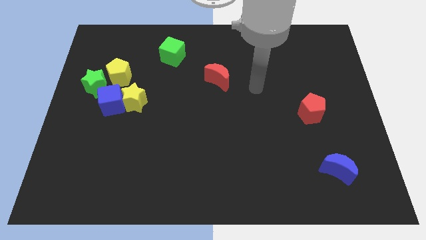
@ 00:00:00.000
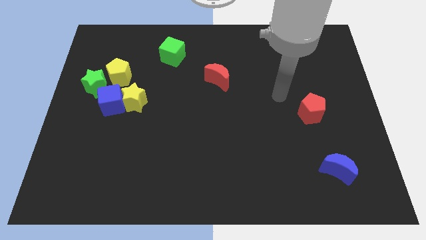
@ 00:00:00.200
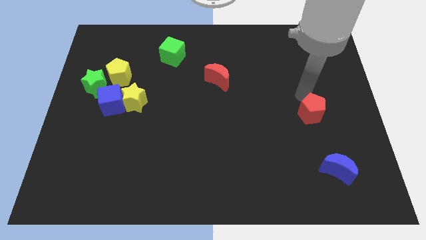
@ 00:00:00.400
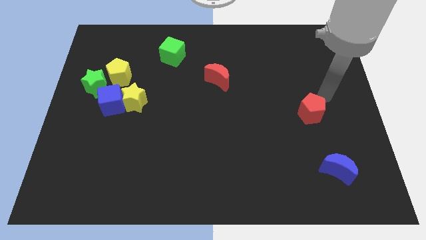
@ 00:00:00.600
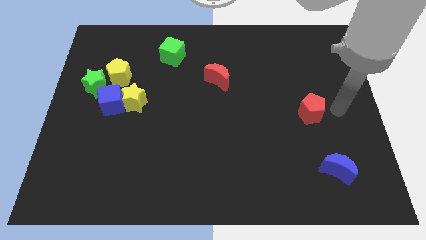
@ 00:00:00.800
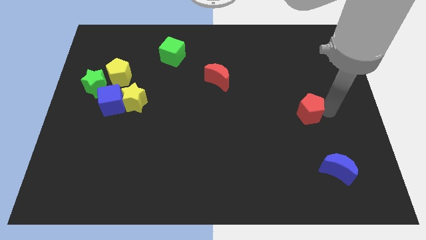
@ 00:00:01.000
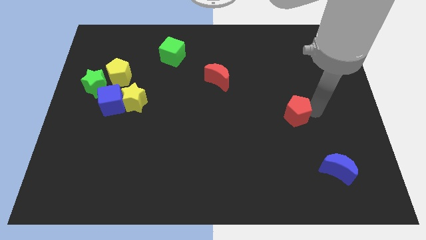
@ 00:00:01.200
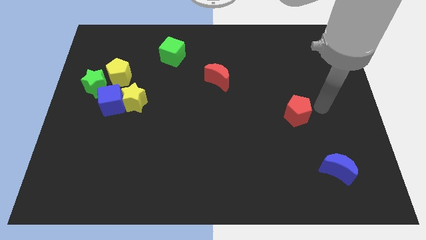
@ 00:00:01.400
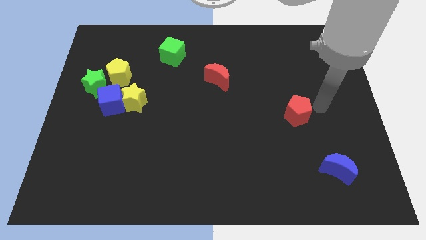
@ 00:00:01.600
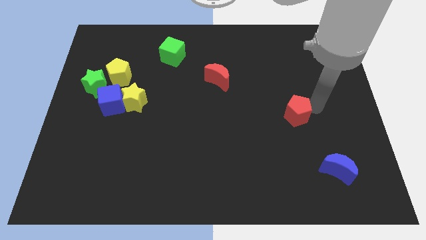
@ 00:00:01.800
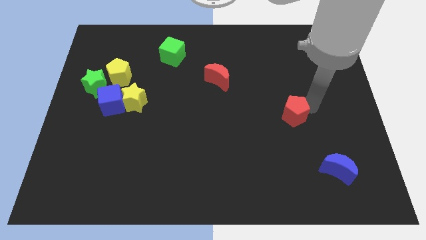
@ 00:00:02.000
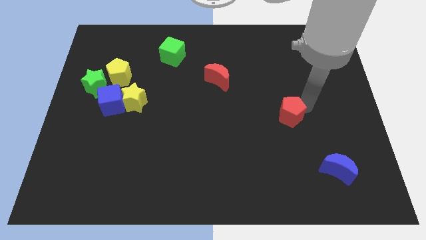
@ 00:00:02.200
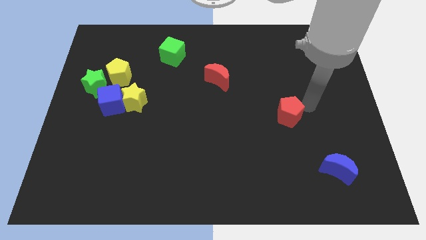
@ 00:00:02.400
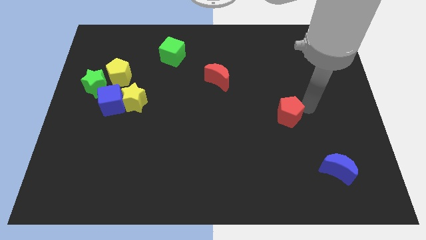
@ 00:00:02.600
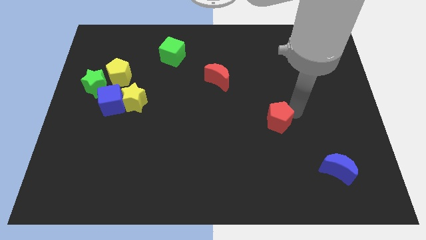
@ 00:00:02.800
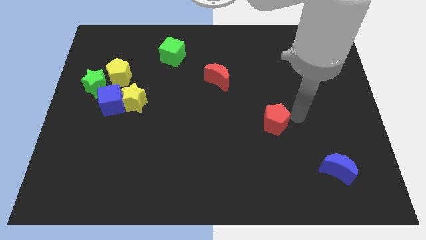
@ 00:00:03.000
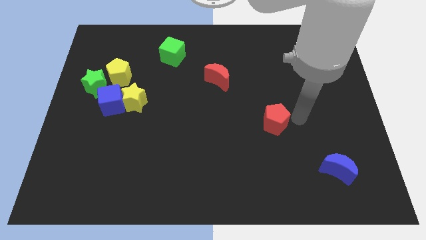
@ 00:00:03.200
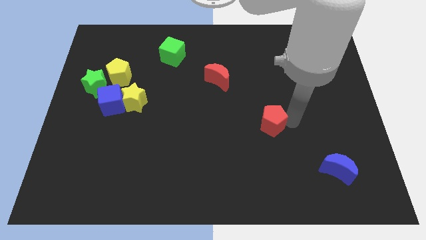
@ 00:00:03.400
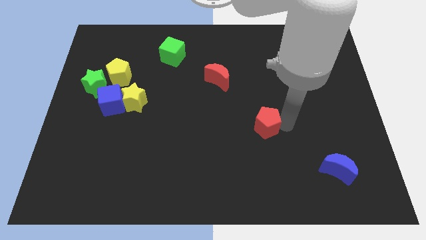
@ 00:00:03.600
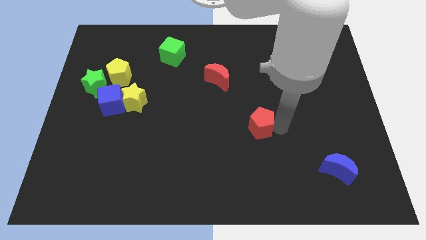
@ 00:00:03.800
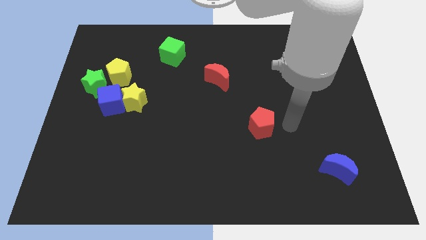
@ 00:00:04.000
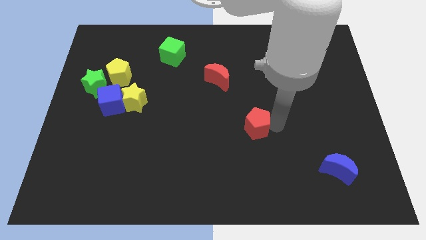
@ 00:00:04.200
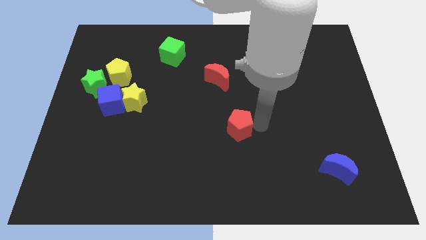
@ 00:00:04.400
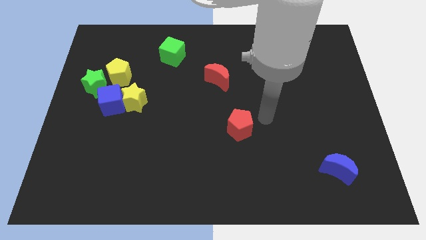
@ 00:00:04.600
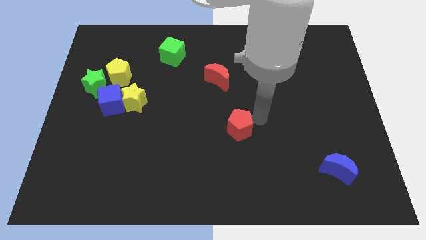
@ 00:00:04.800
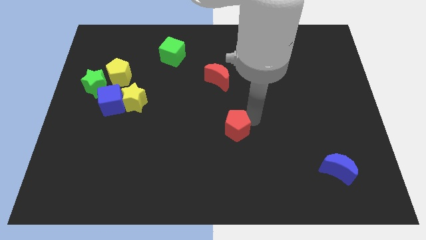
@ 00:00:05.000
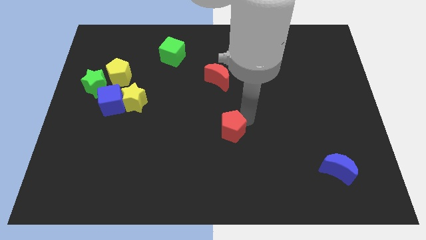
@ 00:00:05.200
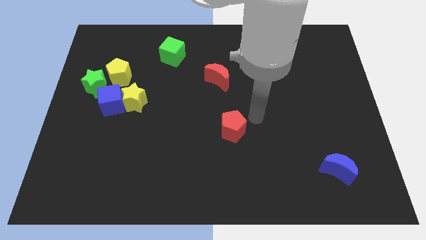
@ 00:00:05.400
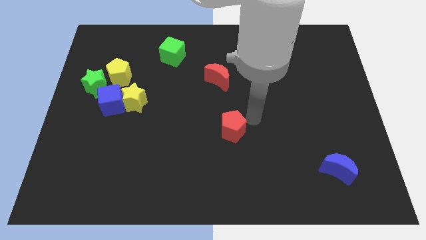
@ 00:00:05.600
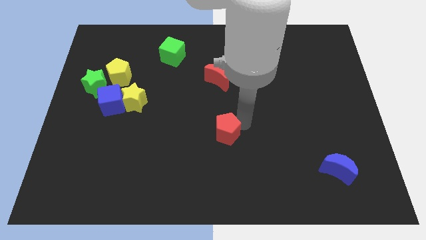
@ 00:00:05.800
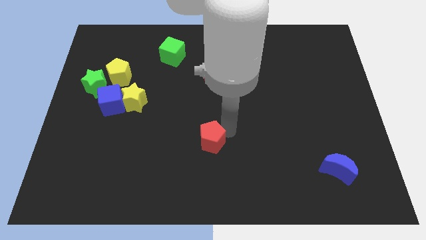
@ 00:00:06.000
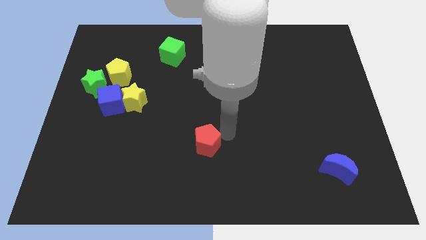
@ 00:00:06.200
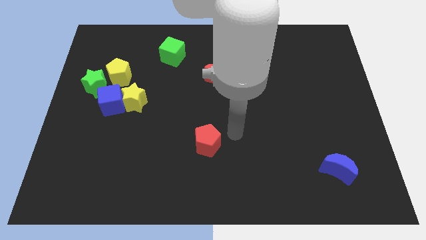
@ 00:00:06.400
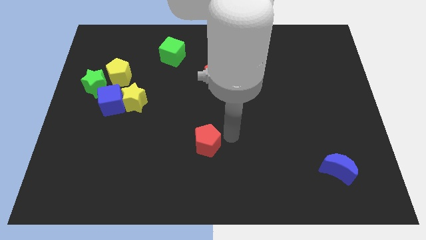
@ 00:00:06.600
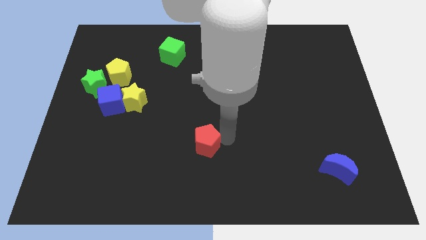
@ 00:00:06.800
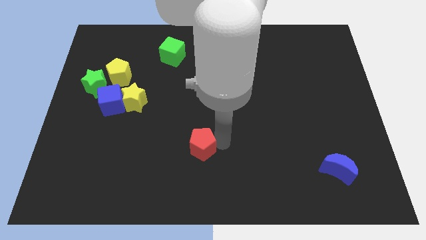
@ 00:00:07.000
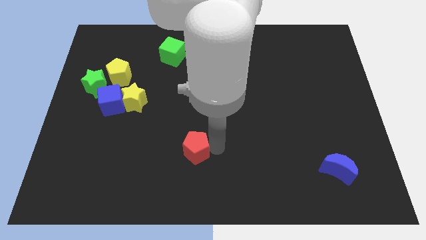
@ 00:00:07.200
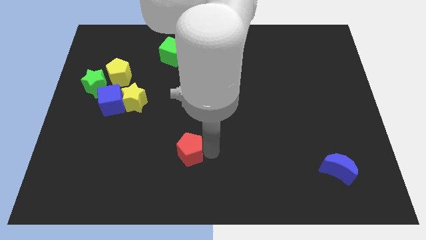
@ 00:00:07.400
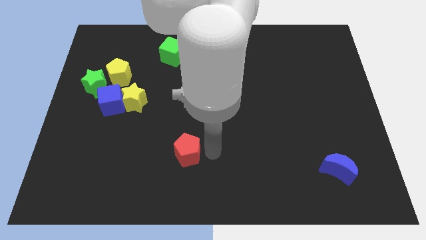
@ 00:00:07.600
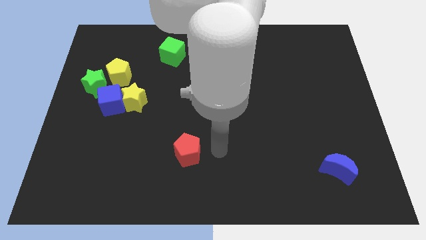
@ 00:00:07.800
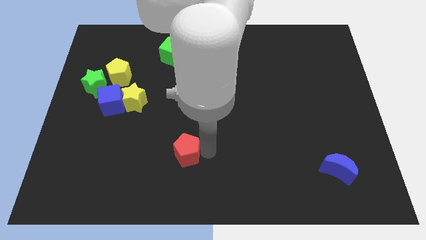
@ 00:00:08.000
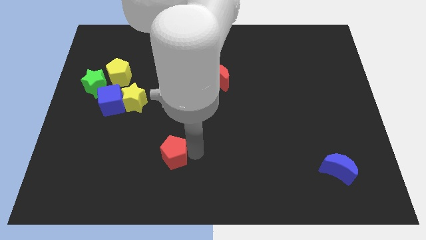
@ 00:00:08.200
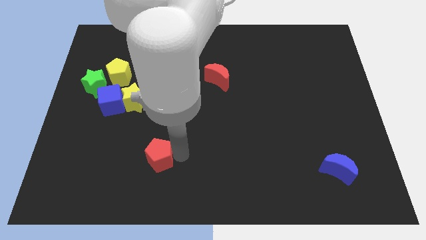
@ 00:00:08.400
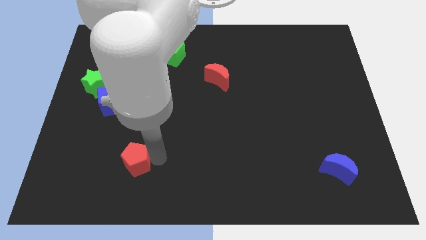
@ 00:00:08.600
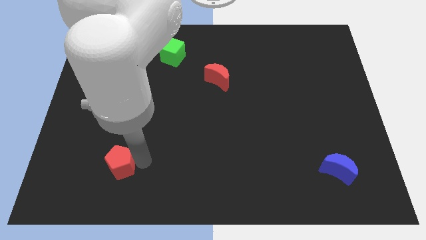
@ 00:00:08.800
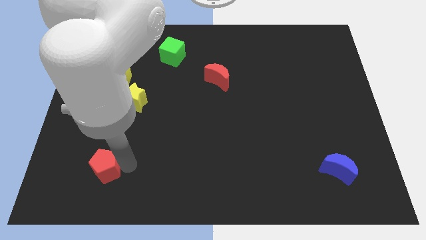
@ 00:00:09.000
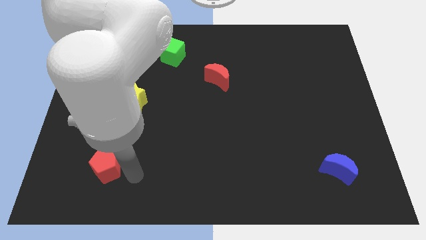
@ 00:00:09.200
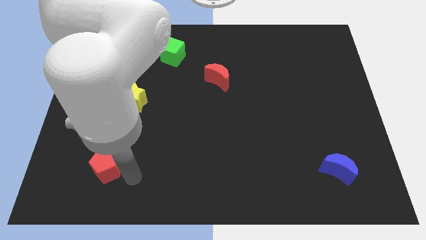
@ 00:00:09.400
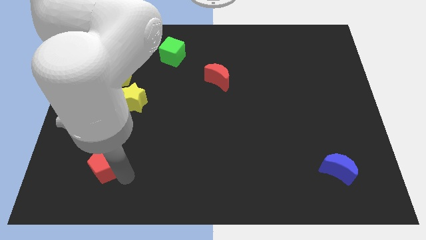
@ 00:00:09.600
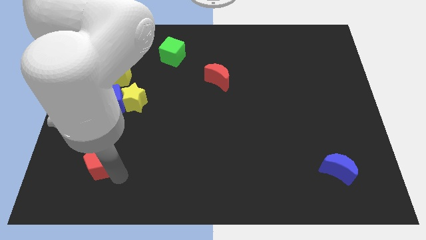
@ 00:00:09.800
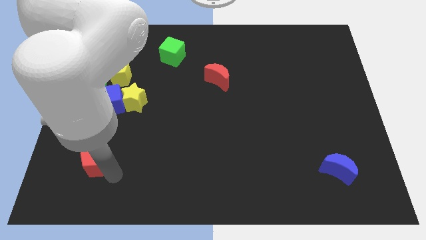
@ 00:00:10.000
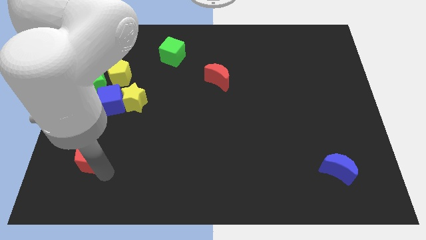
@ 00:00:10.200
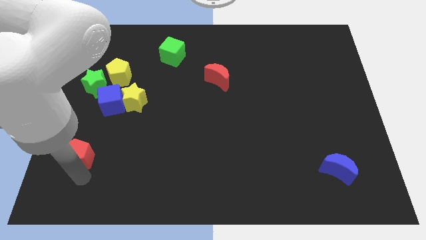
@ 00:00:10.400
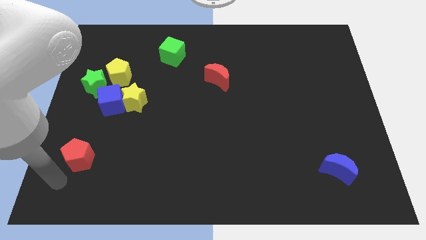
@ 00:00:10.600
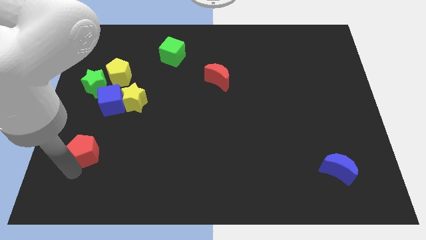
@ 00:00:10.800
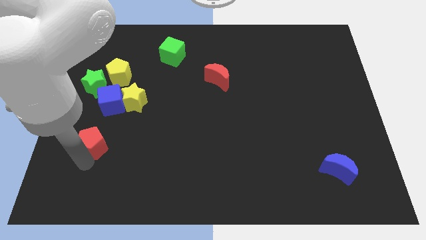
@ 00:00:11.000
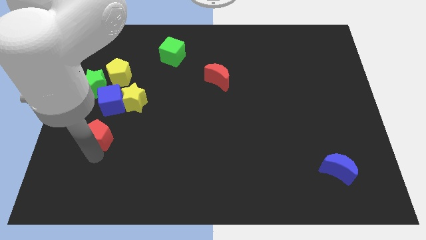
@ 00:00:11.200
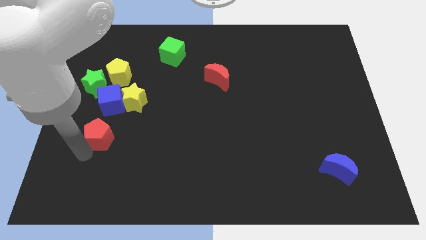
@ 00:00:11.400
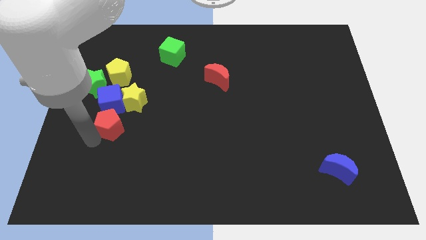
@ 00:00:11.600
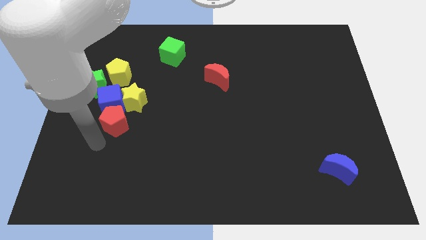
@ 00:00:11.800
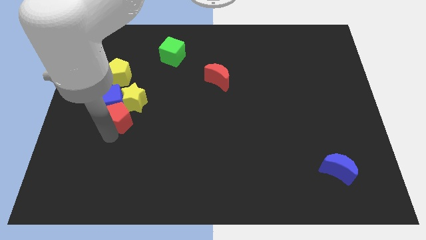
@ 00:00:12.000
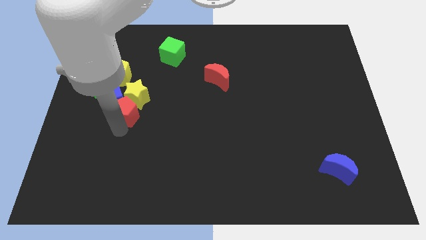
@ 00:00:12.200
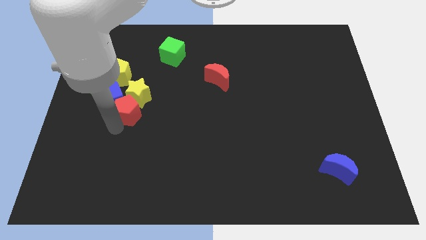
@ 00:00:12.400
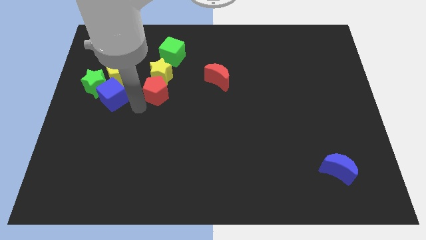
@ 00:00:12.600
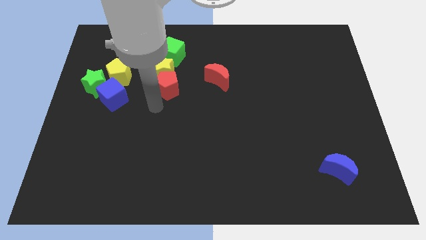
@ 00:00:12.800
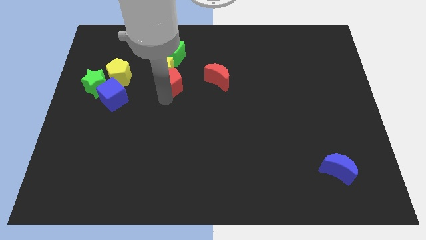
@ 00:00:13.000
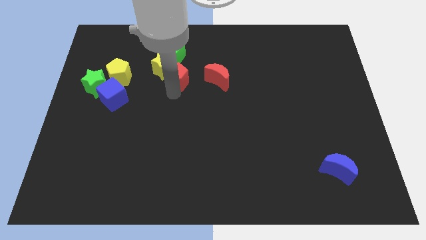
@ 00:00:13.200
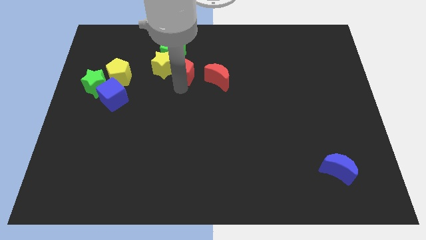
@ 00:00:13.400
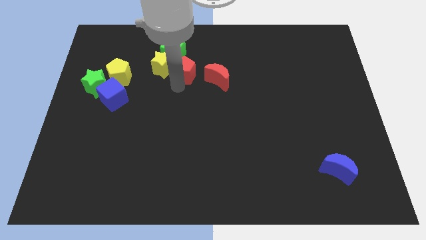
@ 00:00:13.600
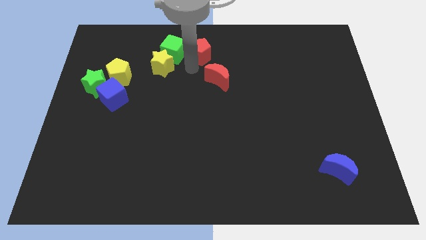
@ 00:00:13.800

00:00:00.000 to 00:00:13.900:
move the red pentagon to the top

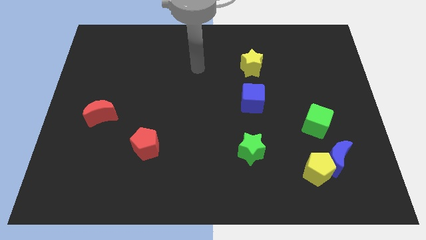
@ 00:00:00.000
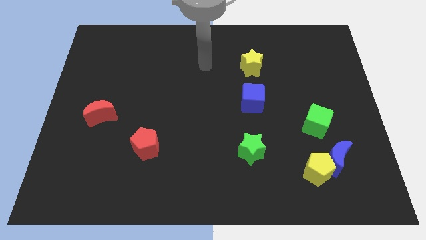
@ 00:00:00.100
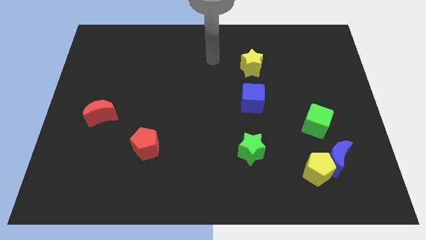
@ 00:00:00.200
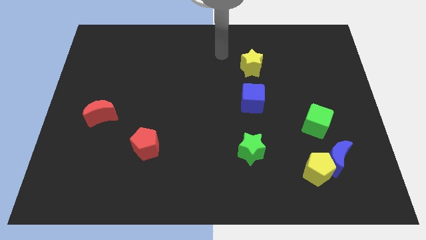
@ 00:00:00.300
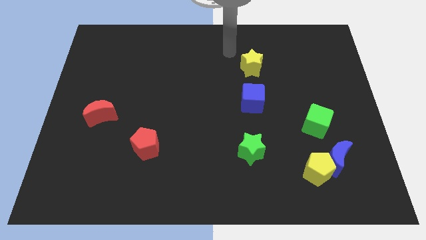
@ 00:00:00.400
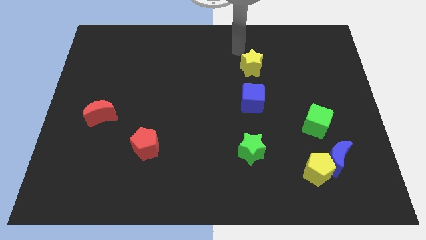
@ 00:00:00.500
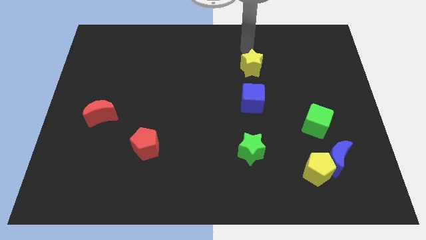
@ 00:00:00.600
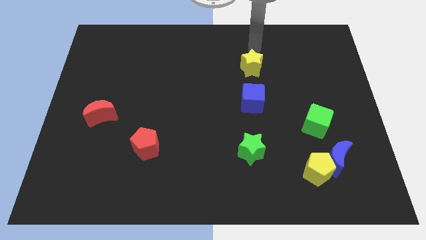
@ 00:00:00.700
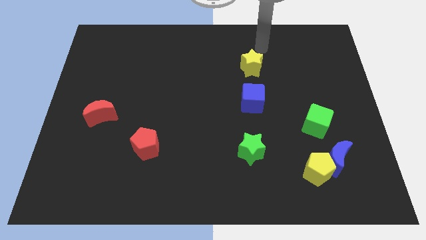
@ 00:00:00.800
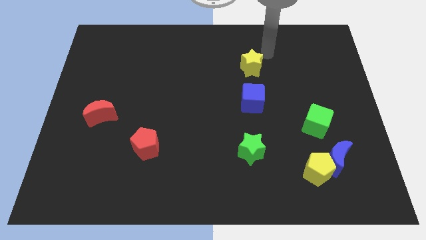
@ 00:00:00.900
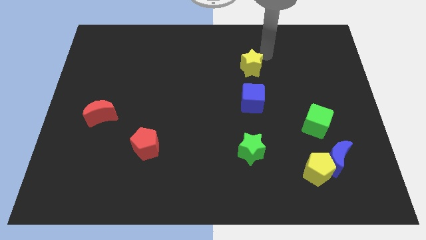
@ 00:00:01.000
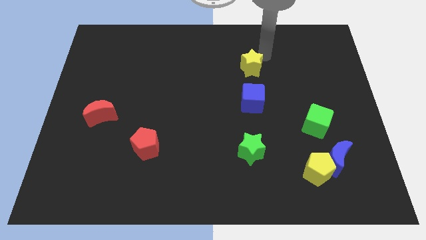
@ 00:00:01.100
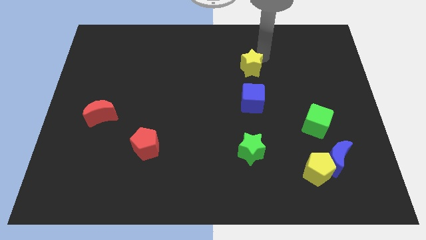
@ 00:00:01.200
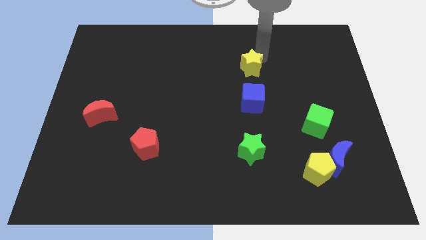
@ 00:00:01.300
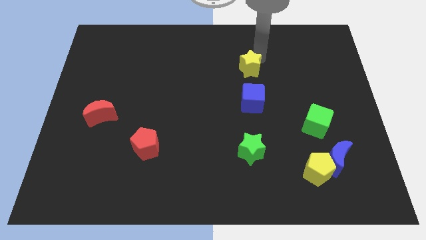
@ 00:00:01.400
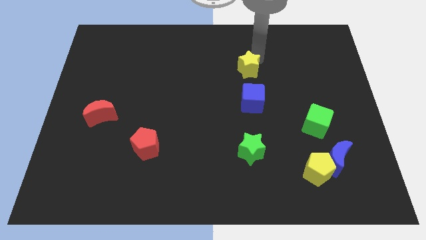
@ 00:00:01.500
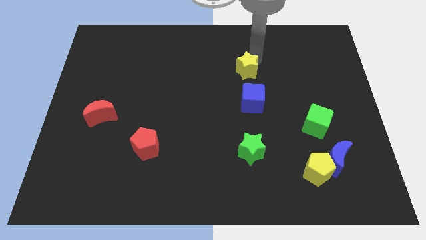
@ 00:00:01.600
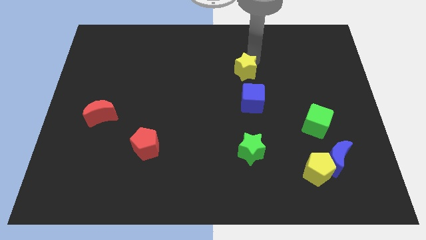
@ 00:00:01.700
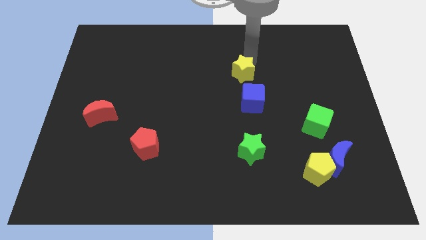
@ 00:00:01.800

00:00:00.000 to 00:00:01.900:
move the yellow star to the center
